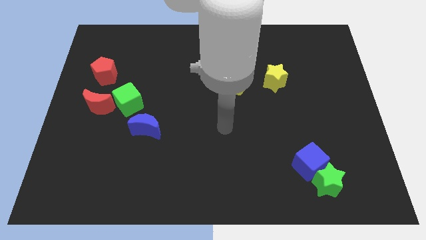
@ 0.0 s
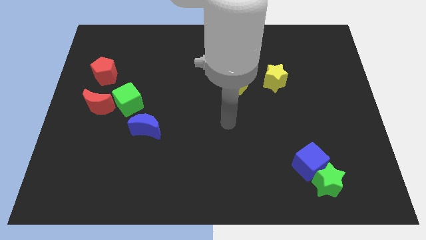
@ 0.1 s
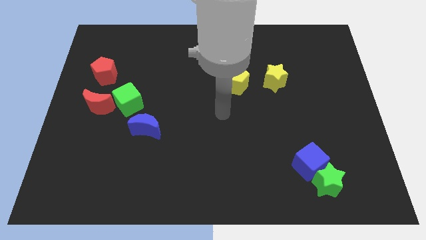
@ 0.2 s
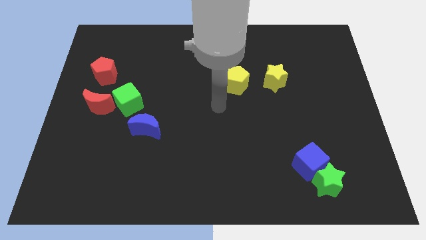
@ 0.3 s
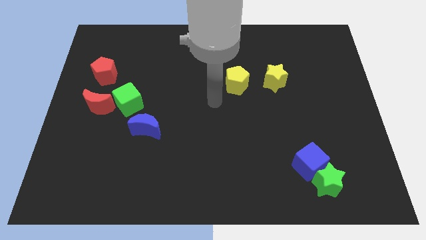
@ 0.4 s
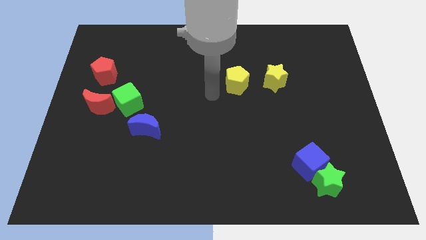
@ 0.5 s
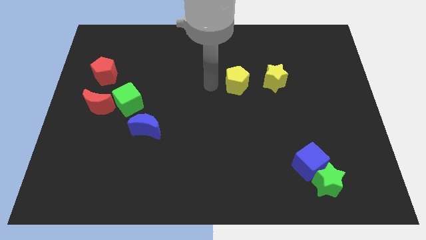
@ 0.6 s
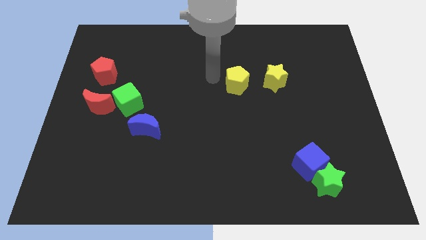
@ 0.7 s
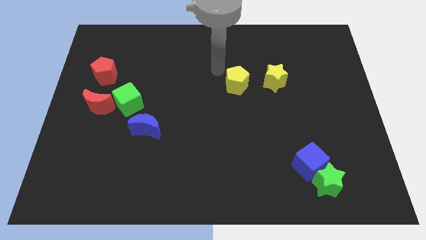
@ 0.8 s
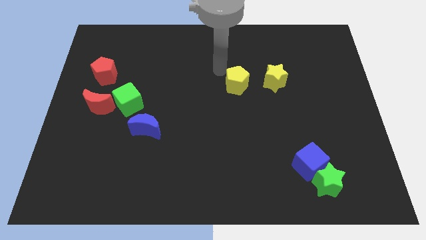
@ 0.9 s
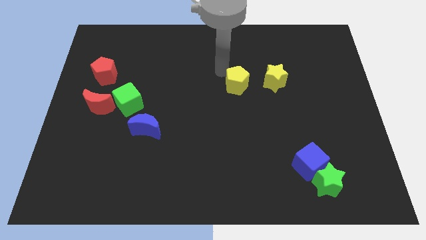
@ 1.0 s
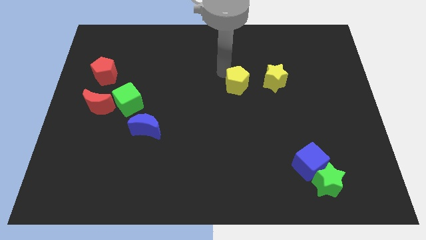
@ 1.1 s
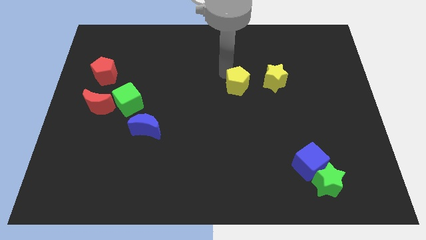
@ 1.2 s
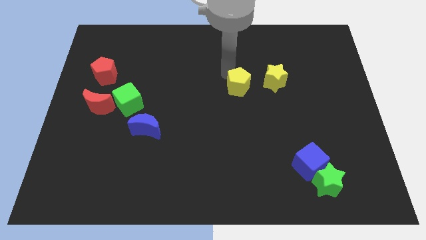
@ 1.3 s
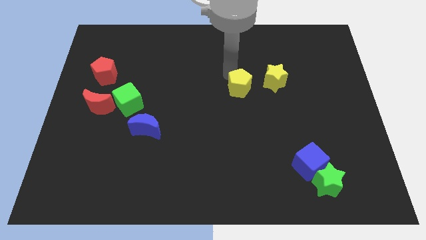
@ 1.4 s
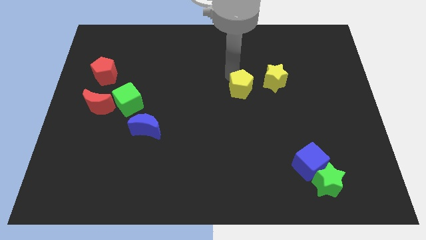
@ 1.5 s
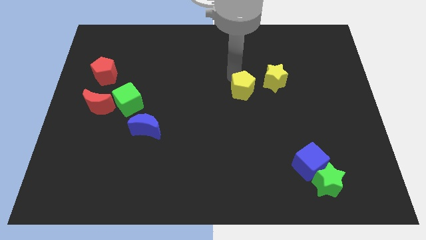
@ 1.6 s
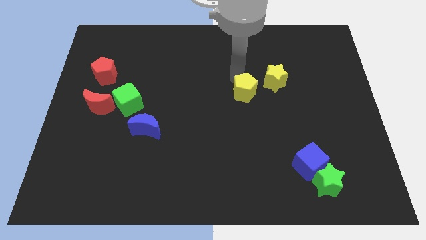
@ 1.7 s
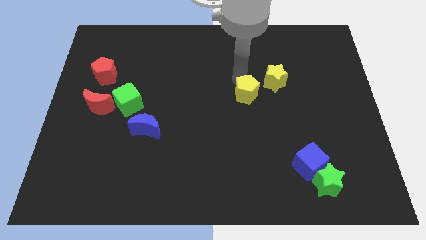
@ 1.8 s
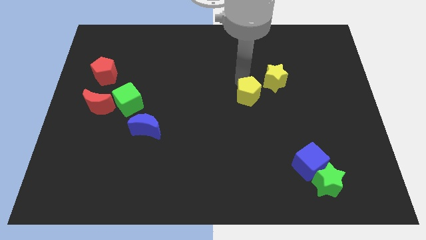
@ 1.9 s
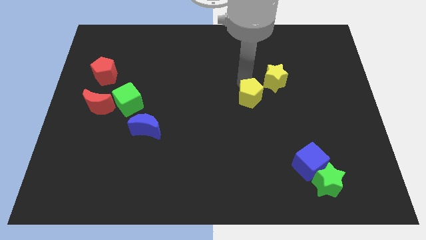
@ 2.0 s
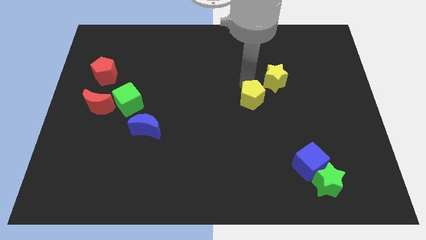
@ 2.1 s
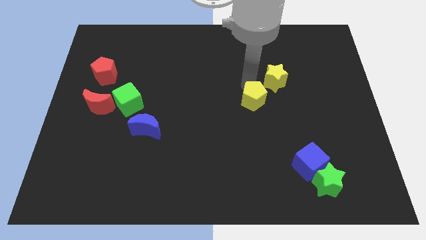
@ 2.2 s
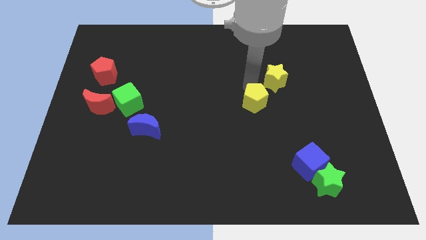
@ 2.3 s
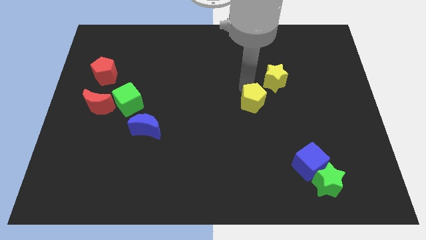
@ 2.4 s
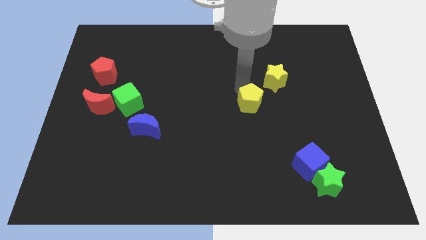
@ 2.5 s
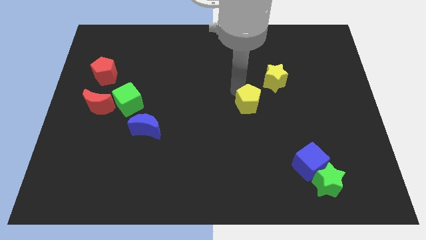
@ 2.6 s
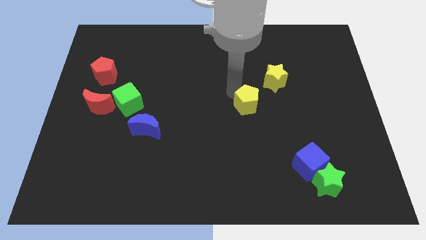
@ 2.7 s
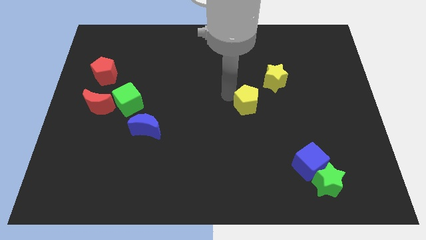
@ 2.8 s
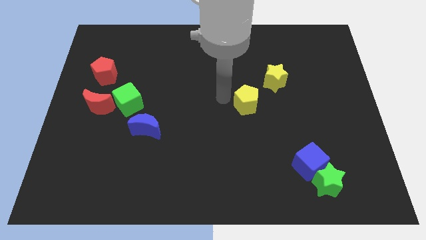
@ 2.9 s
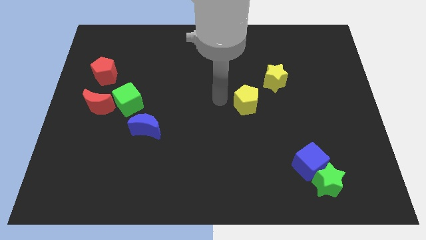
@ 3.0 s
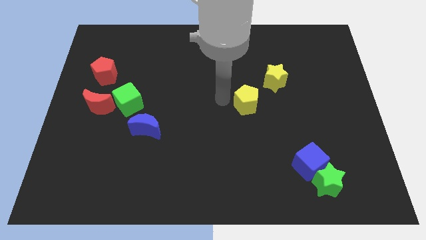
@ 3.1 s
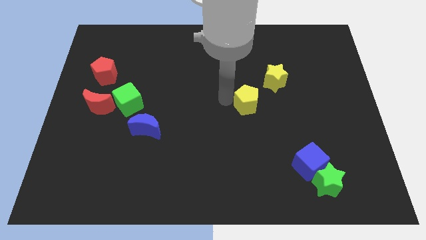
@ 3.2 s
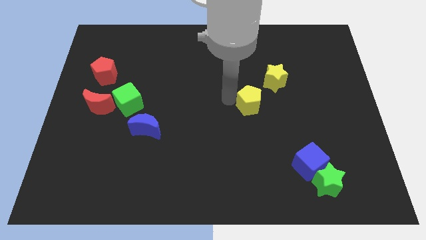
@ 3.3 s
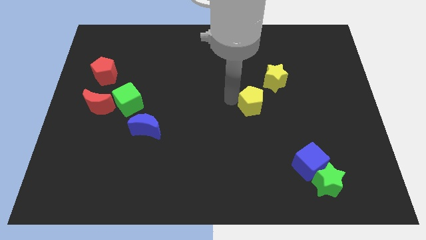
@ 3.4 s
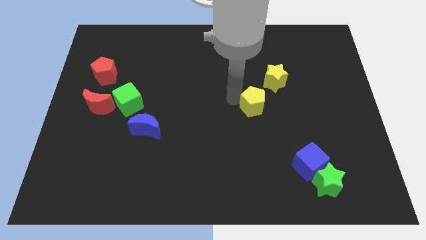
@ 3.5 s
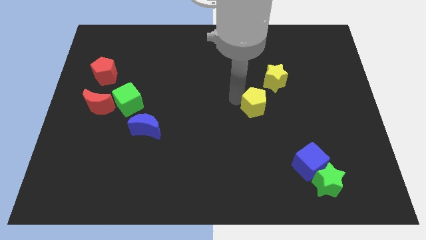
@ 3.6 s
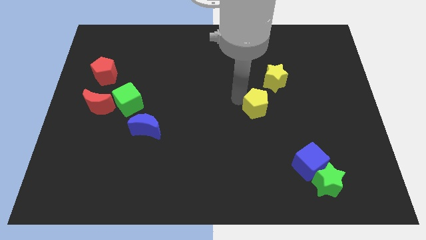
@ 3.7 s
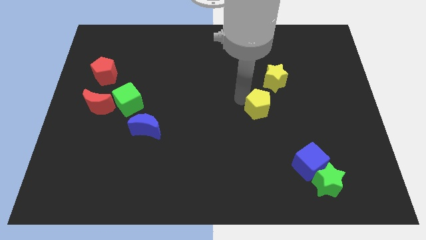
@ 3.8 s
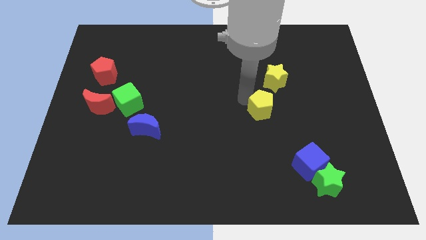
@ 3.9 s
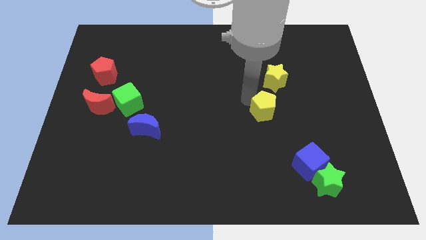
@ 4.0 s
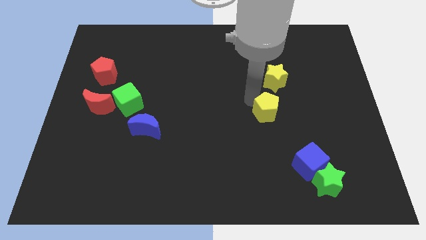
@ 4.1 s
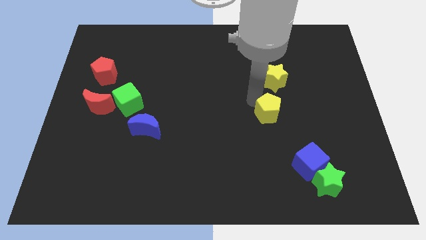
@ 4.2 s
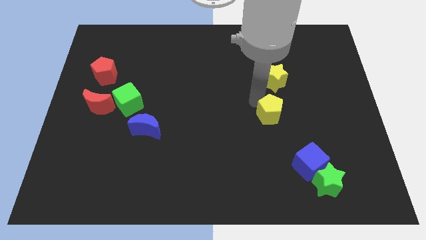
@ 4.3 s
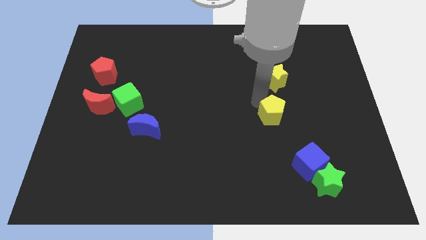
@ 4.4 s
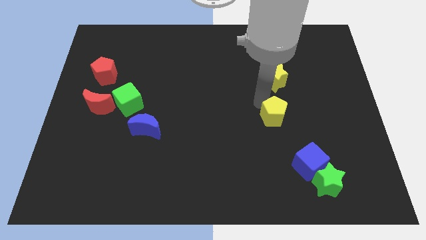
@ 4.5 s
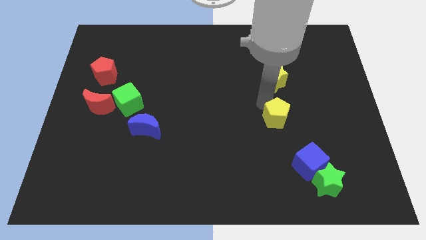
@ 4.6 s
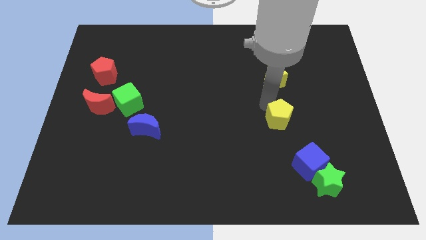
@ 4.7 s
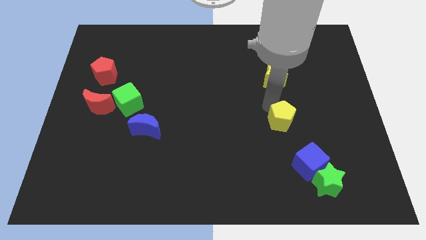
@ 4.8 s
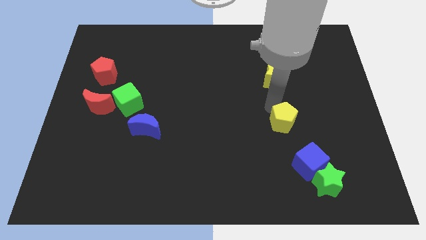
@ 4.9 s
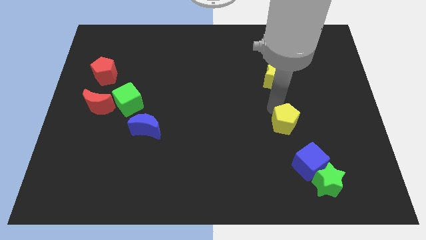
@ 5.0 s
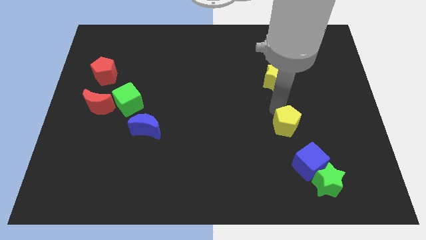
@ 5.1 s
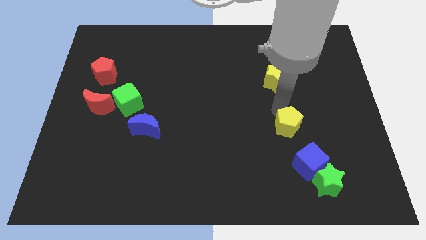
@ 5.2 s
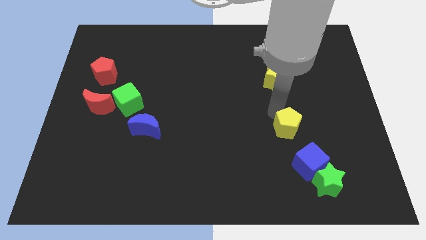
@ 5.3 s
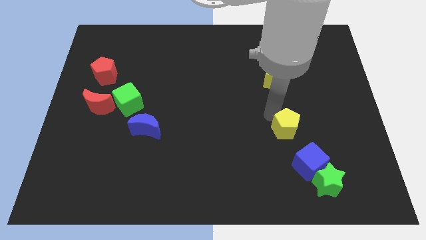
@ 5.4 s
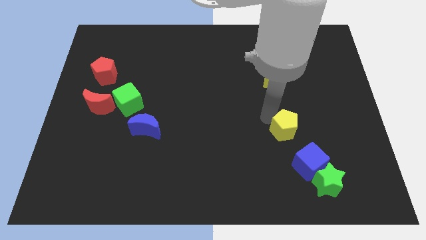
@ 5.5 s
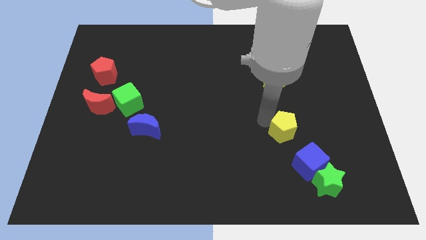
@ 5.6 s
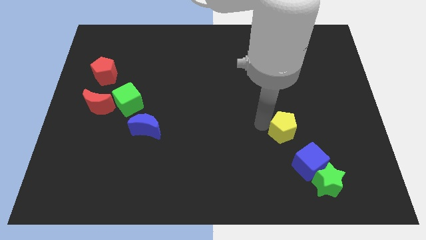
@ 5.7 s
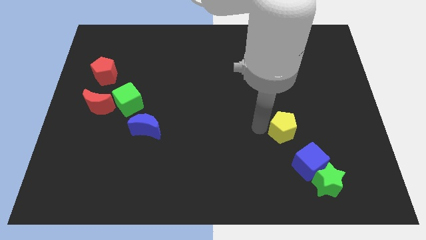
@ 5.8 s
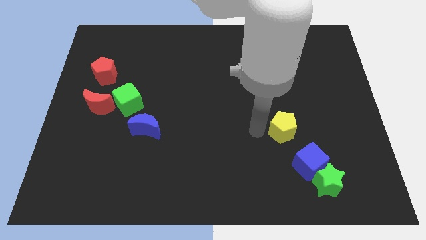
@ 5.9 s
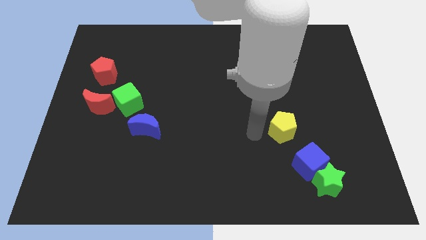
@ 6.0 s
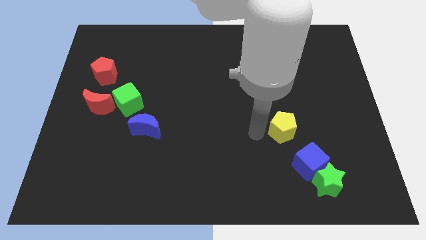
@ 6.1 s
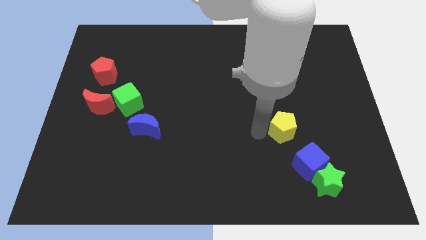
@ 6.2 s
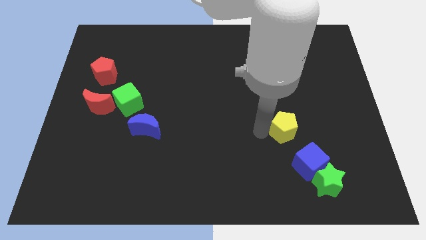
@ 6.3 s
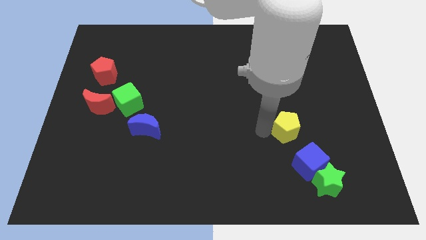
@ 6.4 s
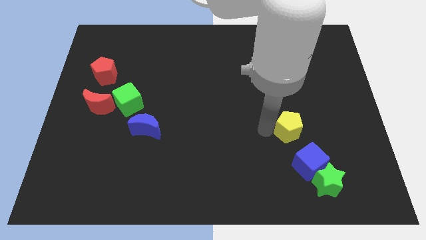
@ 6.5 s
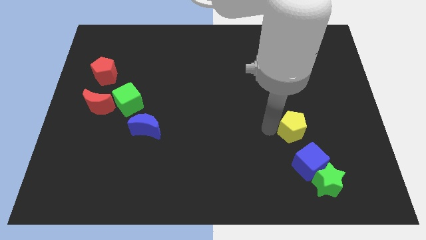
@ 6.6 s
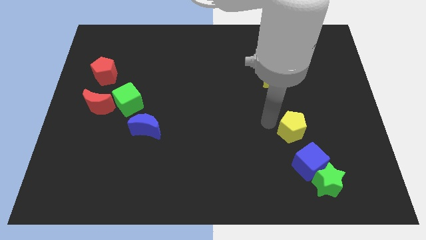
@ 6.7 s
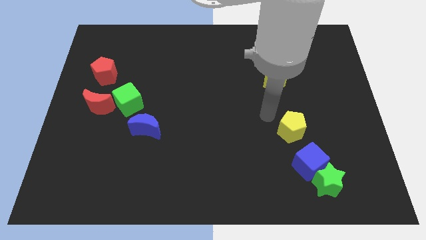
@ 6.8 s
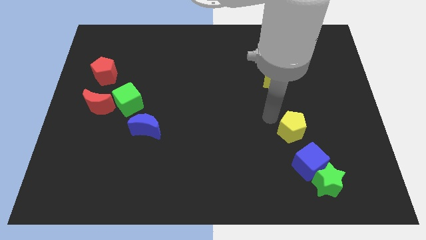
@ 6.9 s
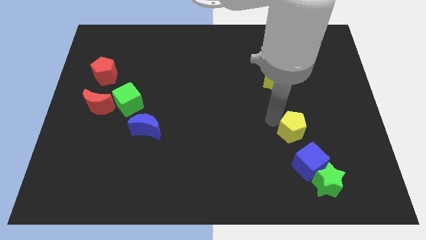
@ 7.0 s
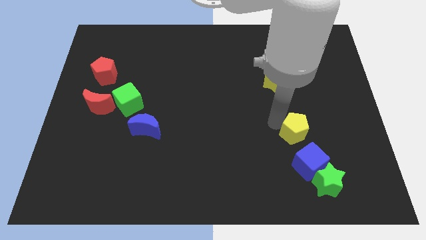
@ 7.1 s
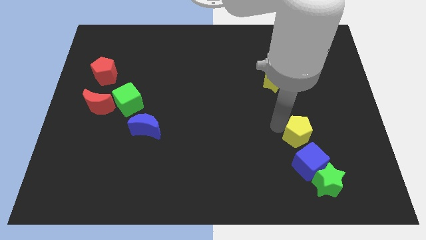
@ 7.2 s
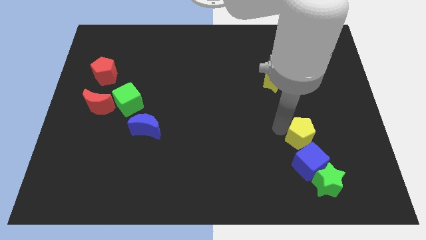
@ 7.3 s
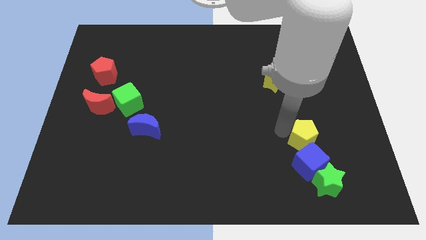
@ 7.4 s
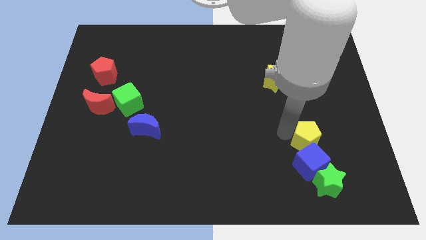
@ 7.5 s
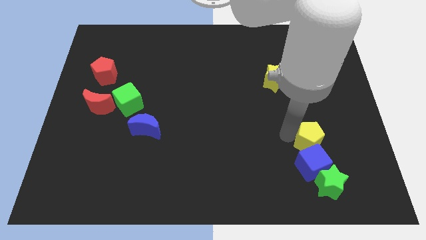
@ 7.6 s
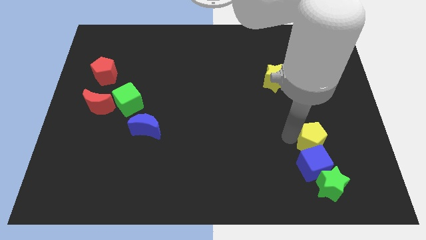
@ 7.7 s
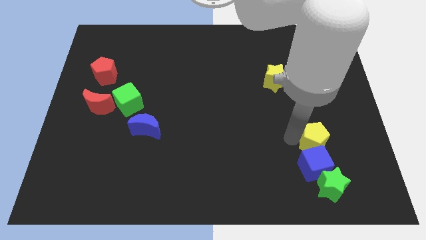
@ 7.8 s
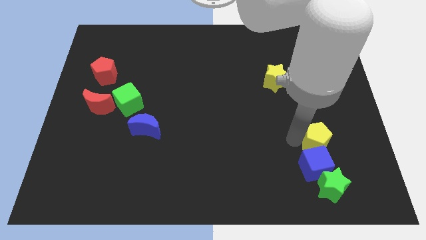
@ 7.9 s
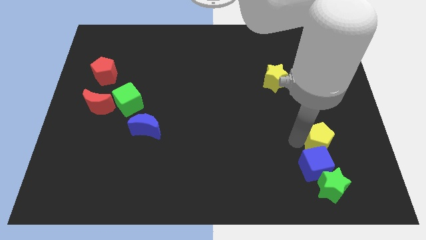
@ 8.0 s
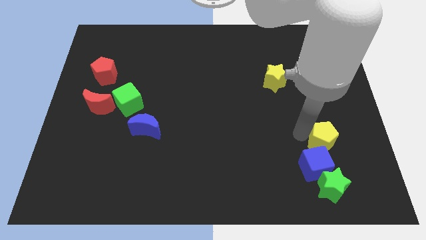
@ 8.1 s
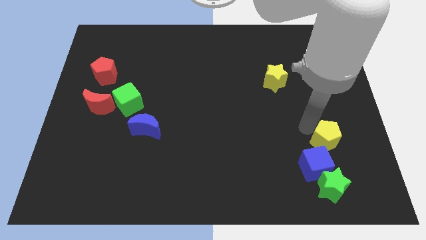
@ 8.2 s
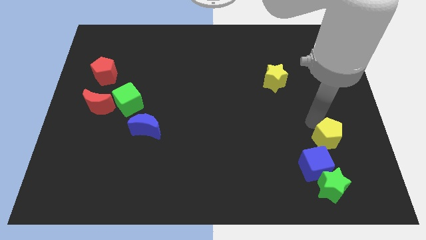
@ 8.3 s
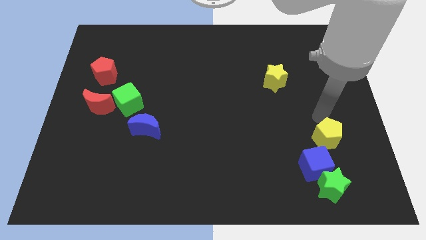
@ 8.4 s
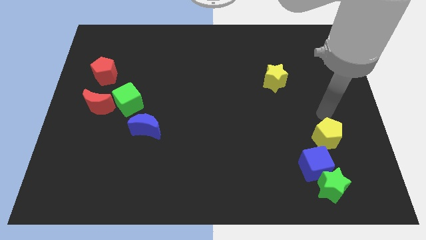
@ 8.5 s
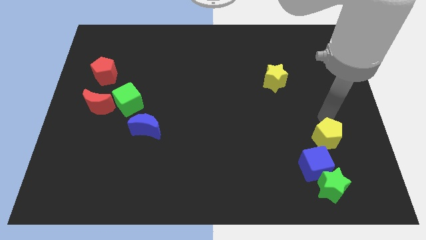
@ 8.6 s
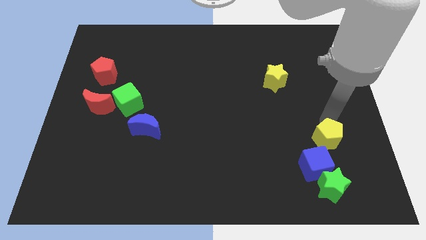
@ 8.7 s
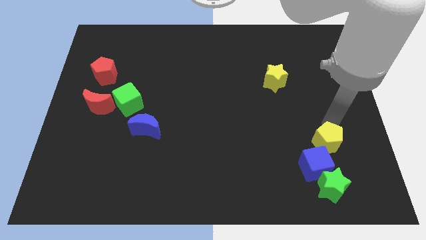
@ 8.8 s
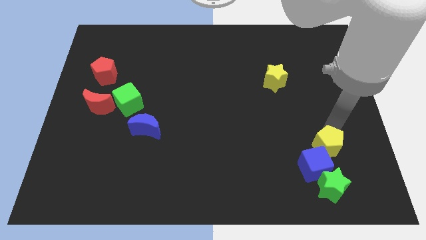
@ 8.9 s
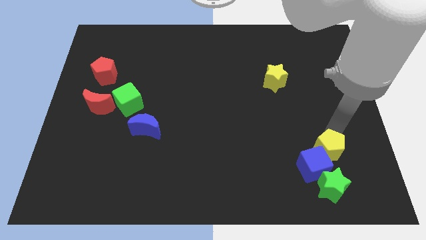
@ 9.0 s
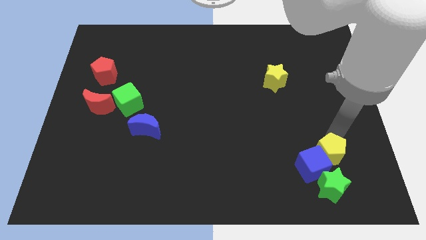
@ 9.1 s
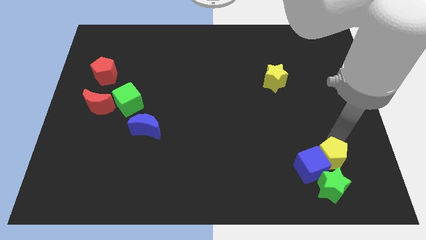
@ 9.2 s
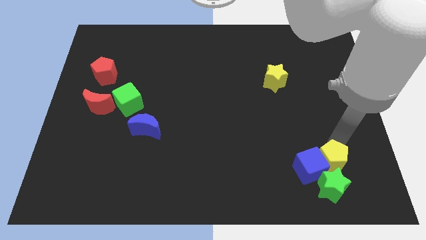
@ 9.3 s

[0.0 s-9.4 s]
put the yellow pentagon to the green star
